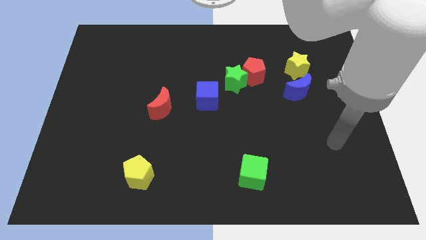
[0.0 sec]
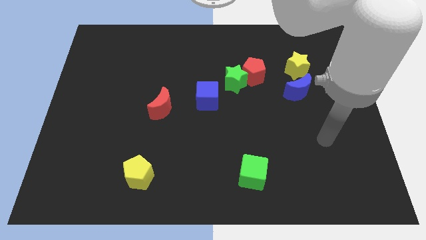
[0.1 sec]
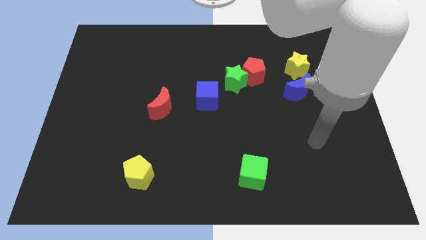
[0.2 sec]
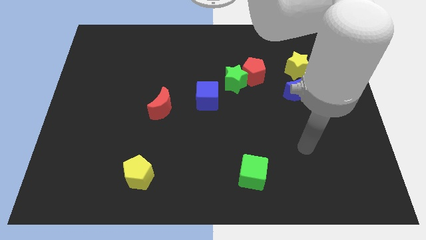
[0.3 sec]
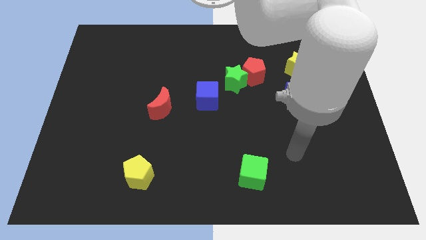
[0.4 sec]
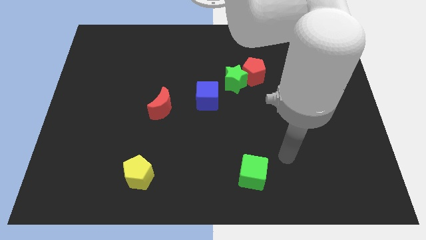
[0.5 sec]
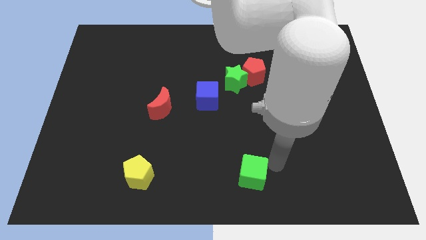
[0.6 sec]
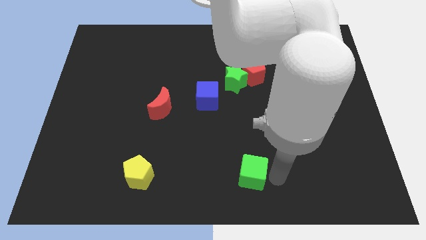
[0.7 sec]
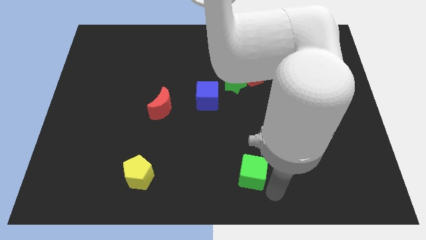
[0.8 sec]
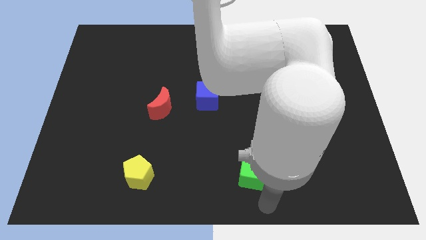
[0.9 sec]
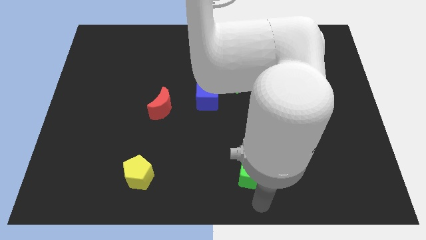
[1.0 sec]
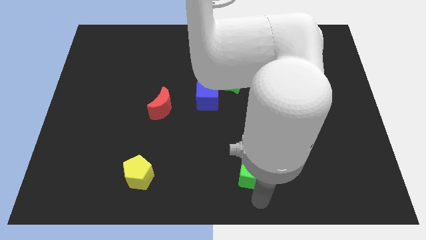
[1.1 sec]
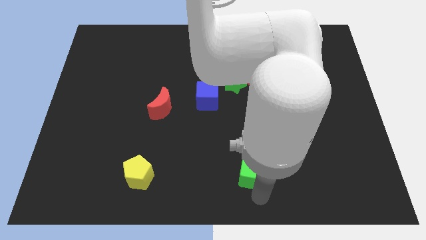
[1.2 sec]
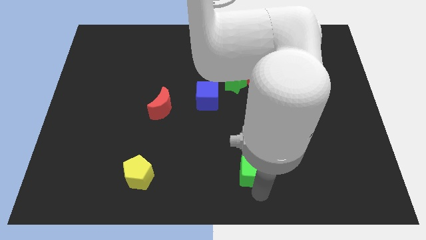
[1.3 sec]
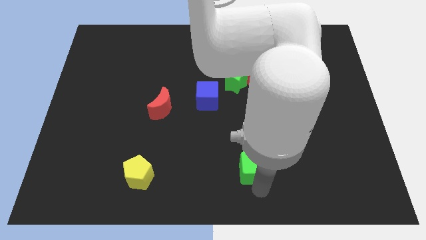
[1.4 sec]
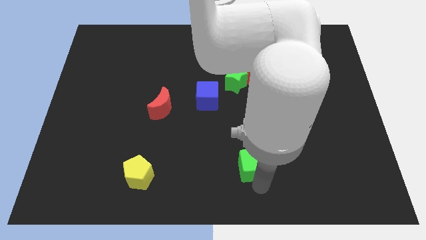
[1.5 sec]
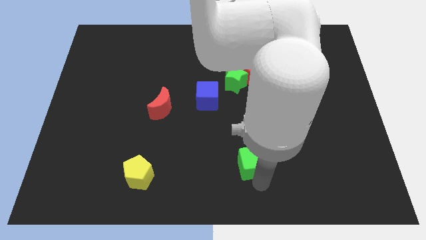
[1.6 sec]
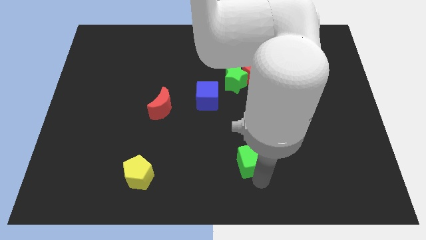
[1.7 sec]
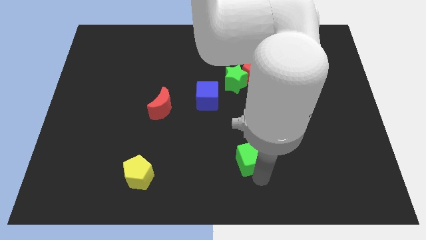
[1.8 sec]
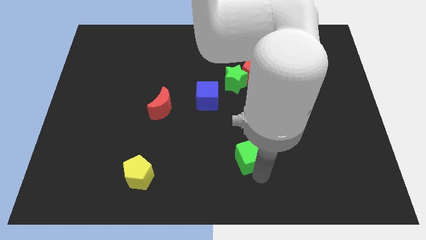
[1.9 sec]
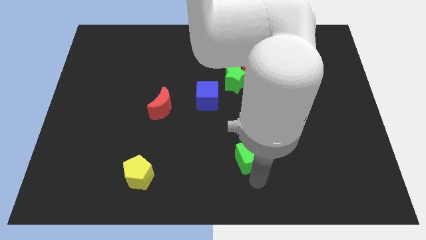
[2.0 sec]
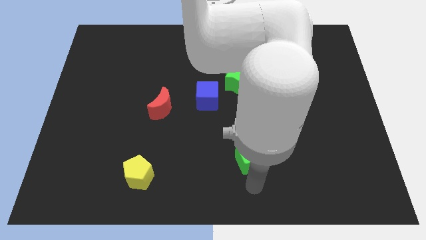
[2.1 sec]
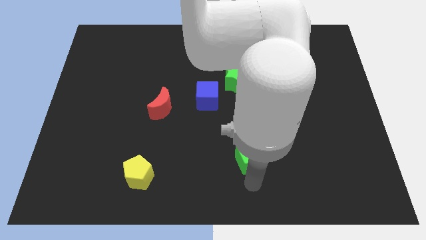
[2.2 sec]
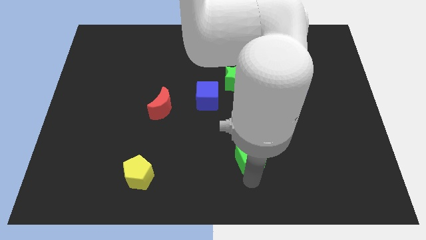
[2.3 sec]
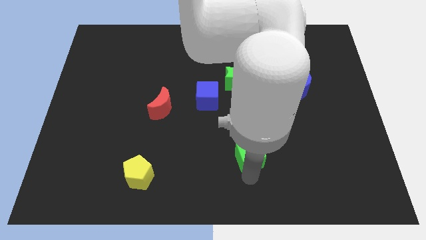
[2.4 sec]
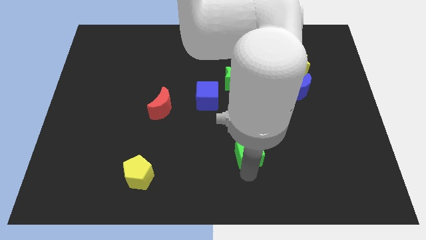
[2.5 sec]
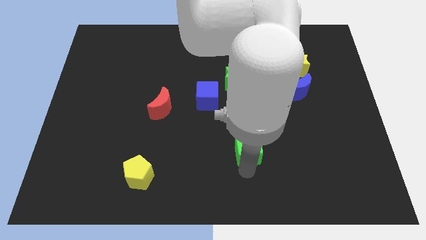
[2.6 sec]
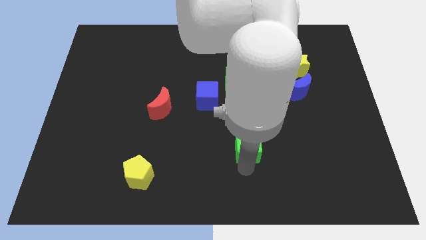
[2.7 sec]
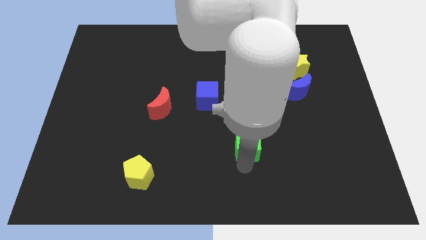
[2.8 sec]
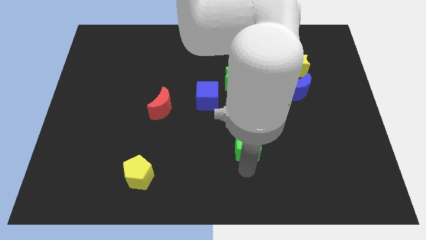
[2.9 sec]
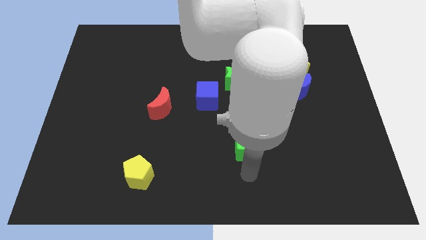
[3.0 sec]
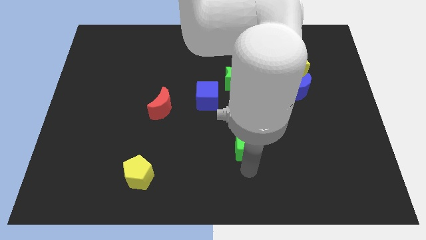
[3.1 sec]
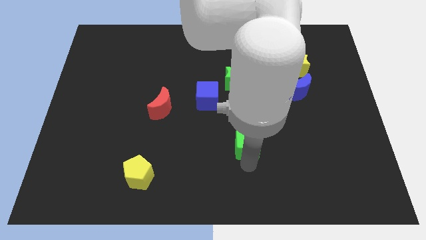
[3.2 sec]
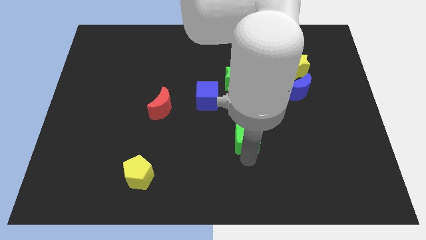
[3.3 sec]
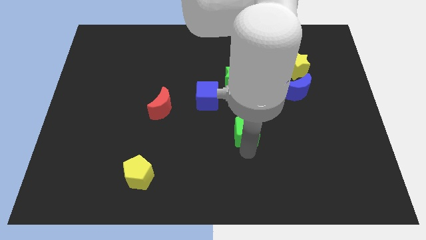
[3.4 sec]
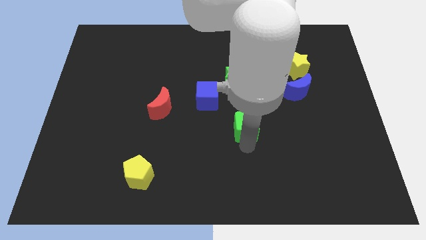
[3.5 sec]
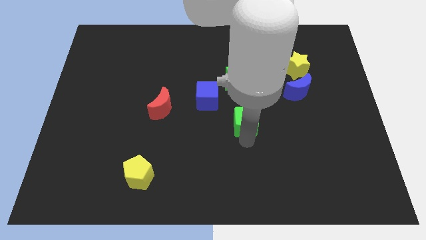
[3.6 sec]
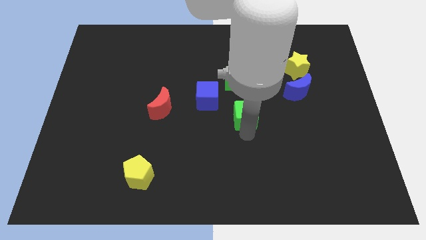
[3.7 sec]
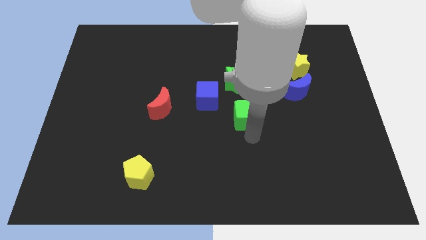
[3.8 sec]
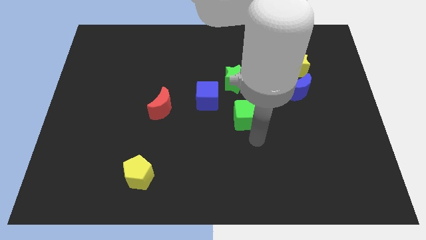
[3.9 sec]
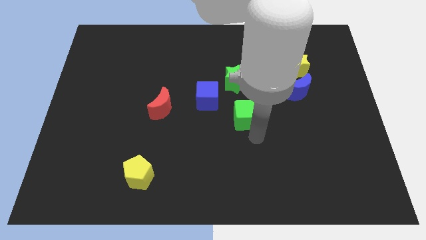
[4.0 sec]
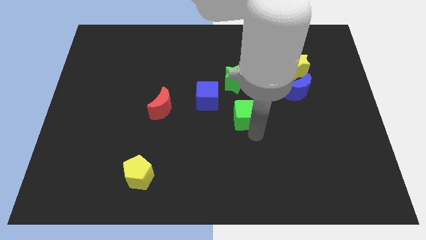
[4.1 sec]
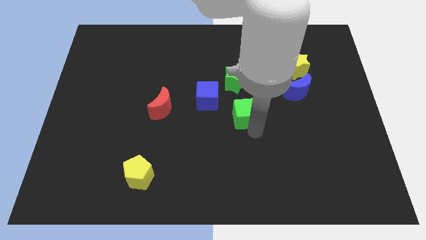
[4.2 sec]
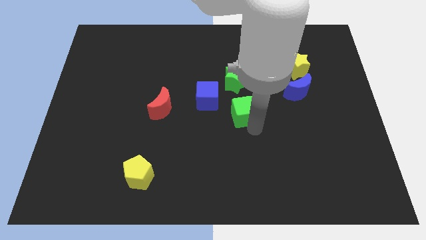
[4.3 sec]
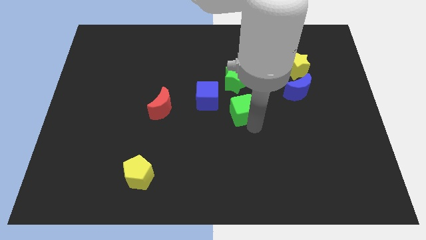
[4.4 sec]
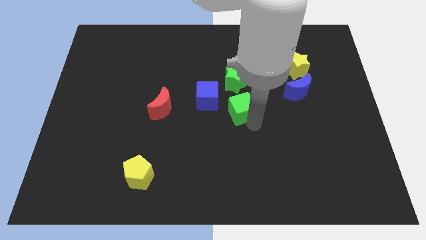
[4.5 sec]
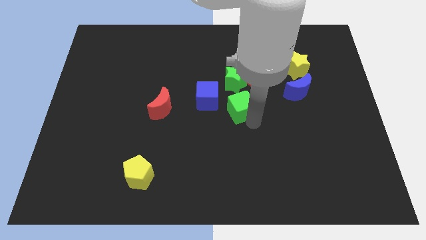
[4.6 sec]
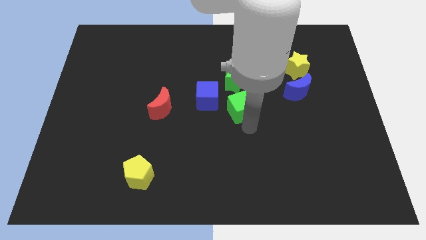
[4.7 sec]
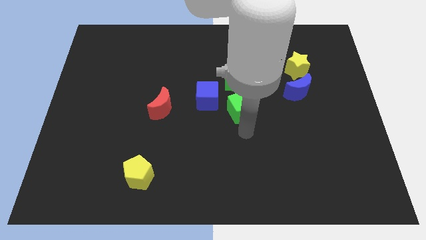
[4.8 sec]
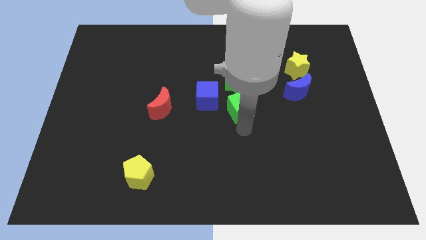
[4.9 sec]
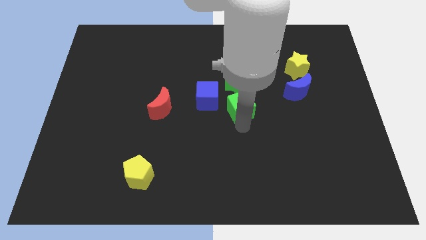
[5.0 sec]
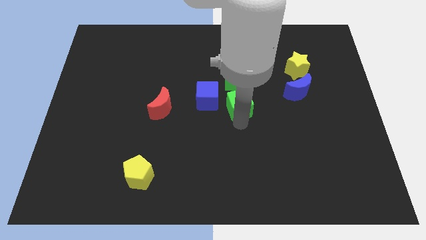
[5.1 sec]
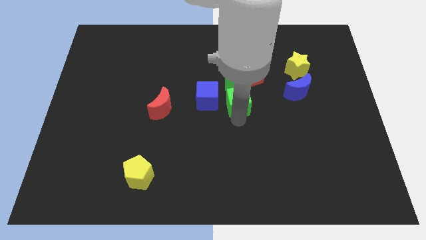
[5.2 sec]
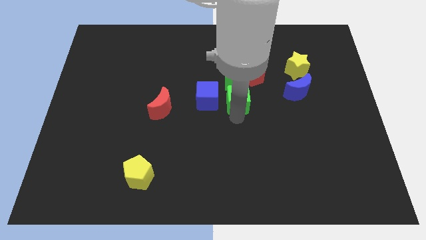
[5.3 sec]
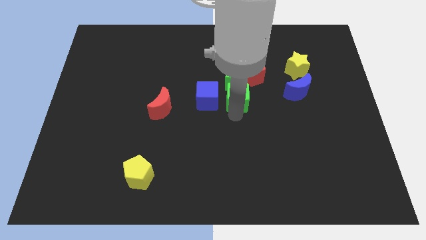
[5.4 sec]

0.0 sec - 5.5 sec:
move the green cube next to the green star

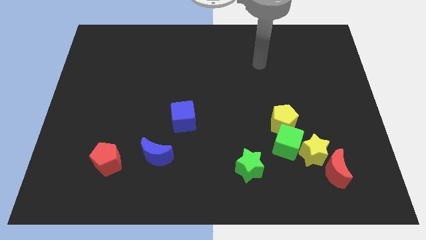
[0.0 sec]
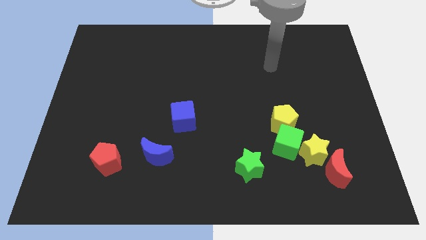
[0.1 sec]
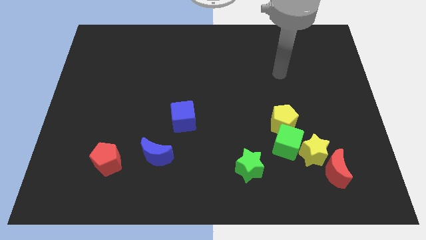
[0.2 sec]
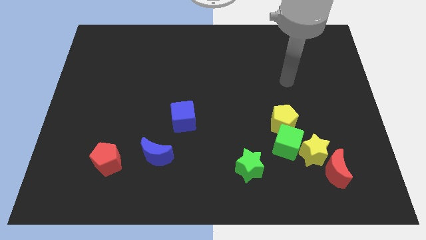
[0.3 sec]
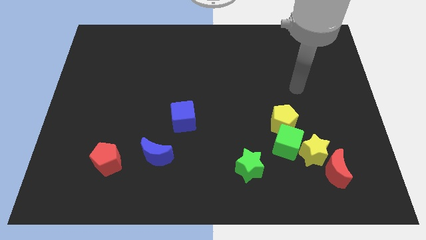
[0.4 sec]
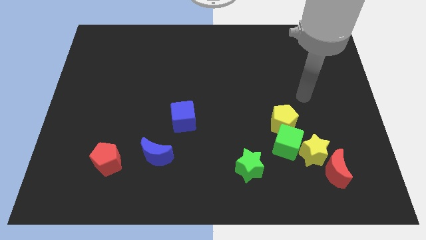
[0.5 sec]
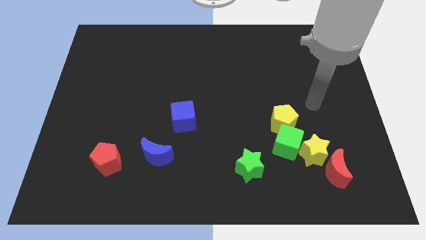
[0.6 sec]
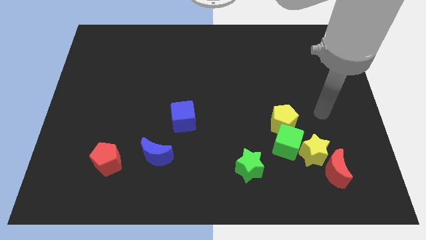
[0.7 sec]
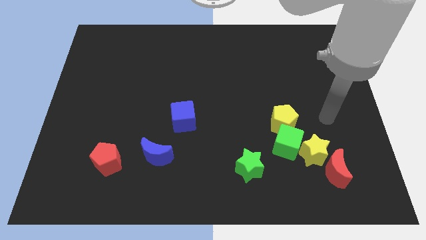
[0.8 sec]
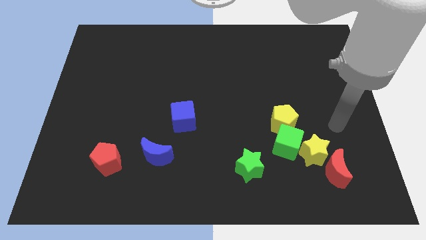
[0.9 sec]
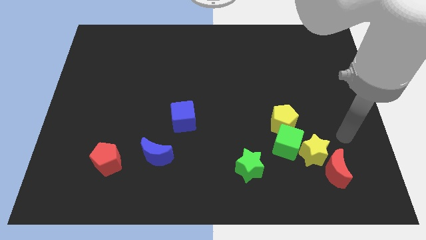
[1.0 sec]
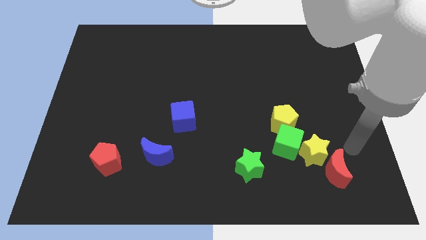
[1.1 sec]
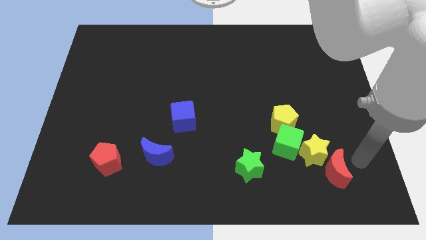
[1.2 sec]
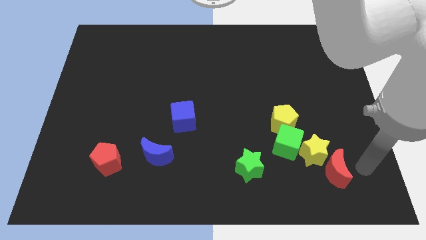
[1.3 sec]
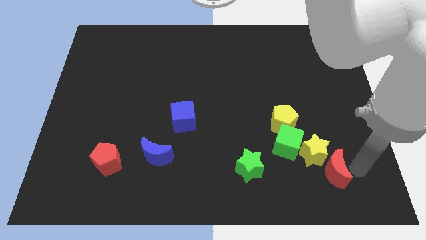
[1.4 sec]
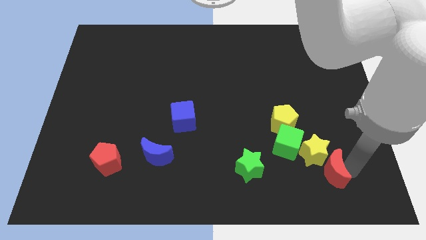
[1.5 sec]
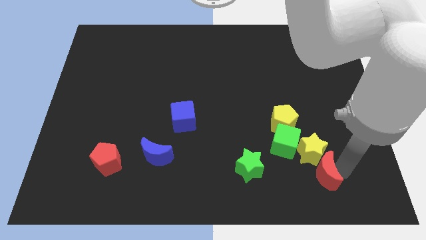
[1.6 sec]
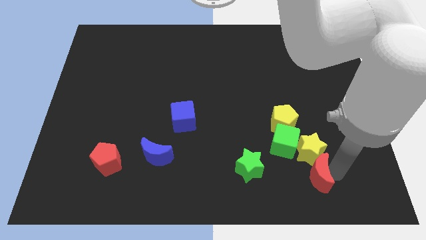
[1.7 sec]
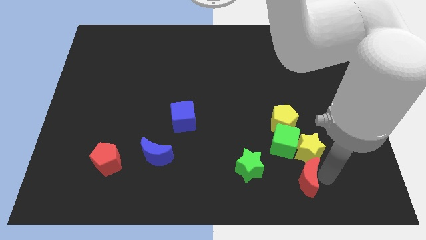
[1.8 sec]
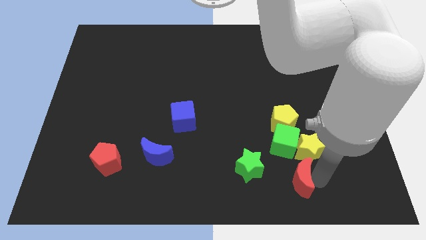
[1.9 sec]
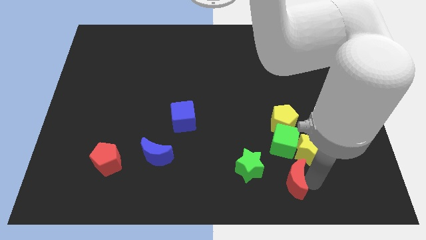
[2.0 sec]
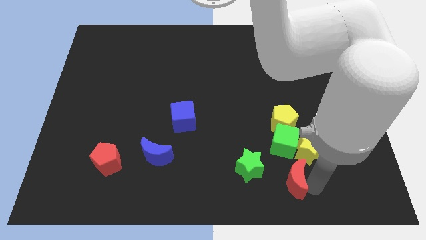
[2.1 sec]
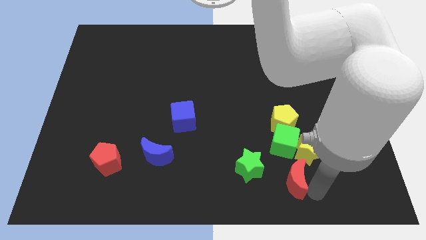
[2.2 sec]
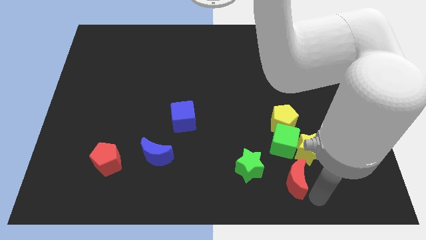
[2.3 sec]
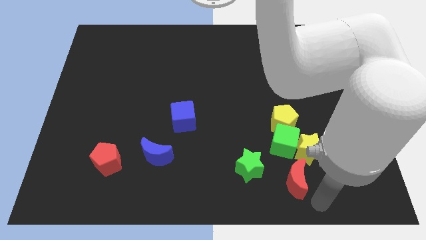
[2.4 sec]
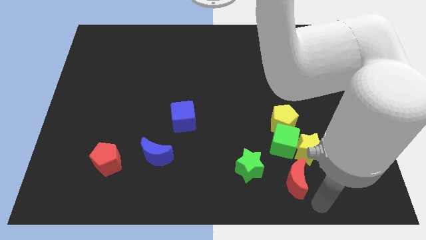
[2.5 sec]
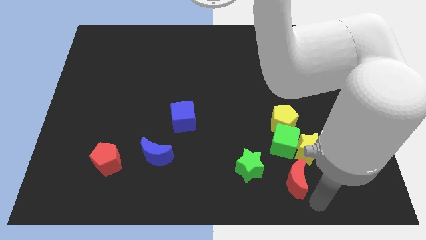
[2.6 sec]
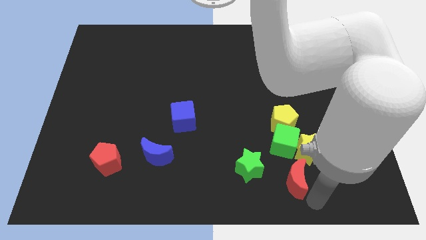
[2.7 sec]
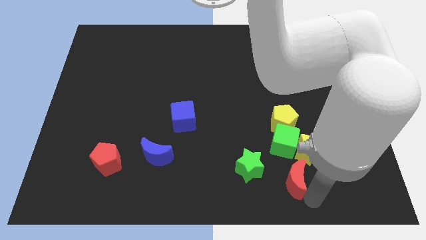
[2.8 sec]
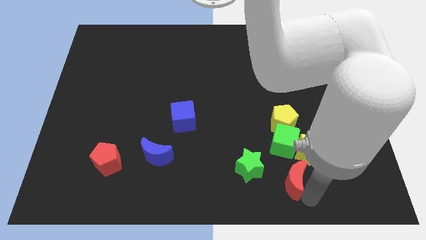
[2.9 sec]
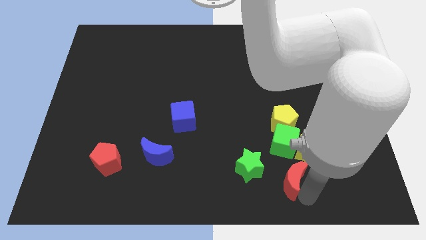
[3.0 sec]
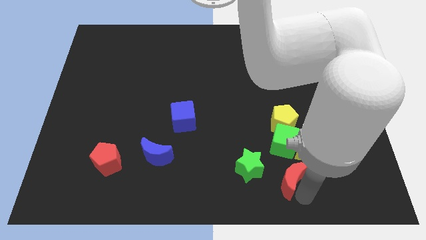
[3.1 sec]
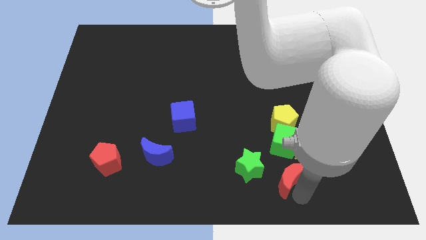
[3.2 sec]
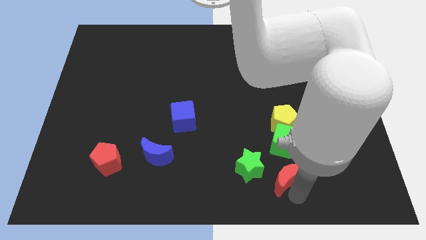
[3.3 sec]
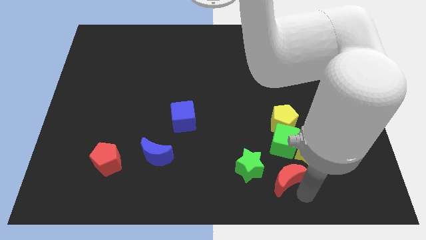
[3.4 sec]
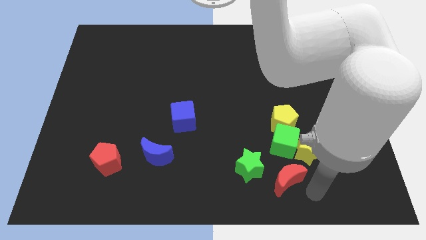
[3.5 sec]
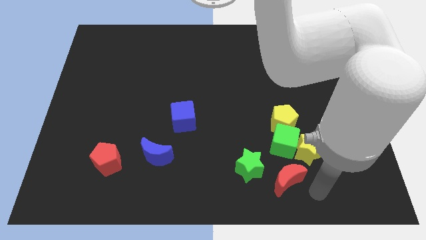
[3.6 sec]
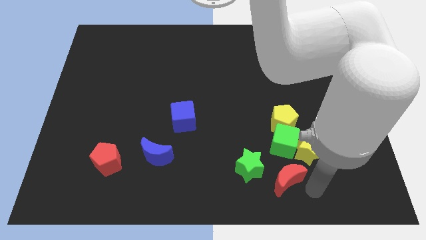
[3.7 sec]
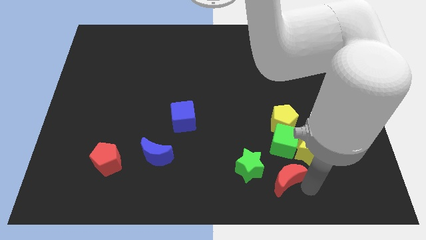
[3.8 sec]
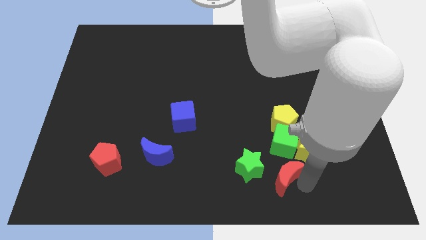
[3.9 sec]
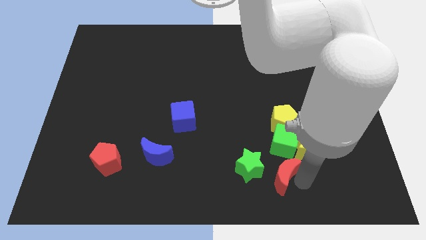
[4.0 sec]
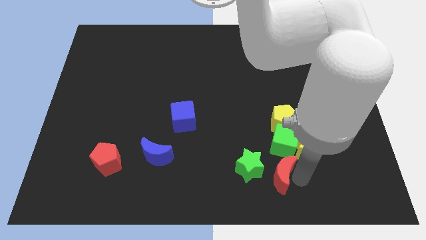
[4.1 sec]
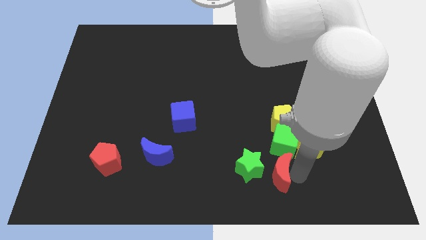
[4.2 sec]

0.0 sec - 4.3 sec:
put the red moon next to the green star
